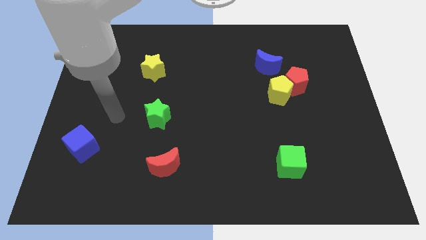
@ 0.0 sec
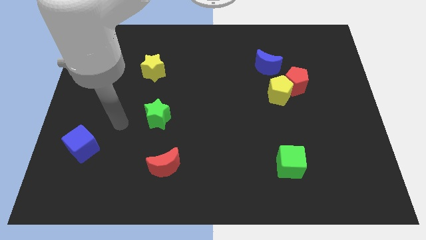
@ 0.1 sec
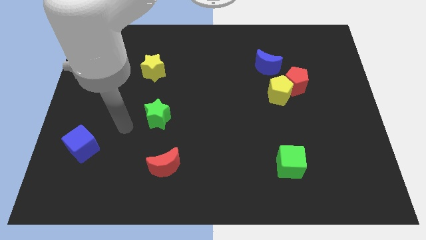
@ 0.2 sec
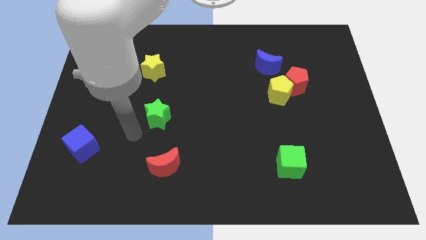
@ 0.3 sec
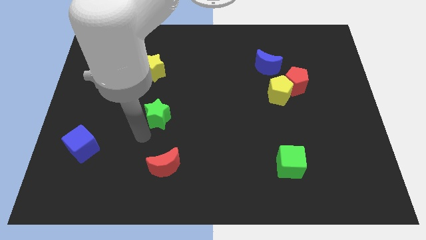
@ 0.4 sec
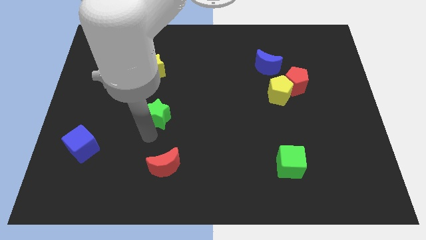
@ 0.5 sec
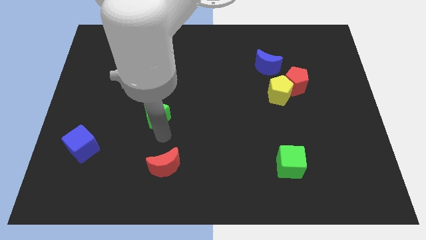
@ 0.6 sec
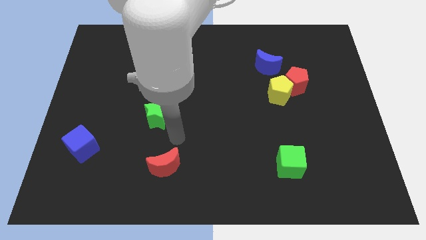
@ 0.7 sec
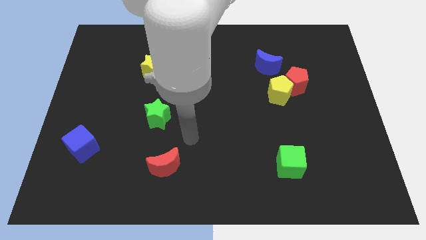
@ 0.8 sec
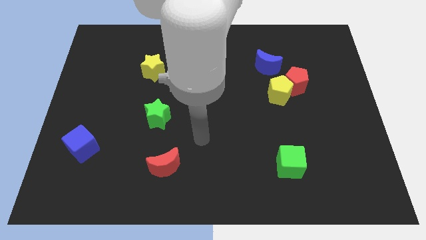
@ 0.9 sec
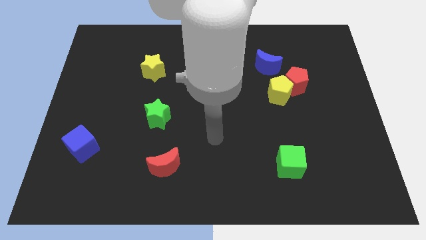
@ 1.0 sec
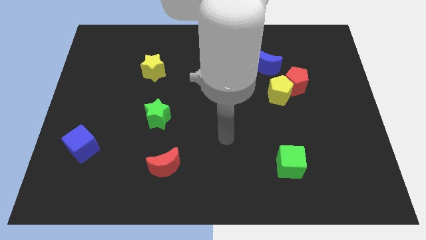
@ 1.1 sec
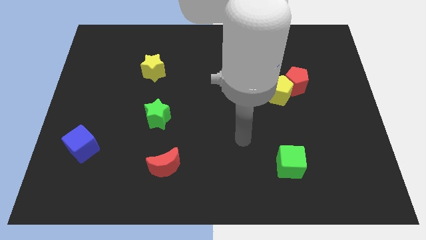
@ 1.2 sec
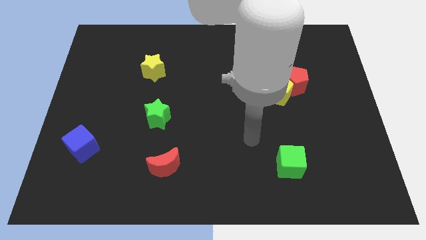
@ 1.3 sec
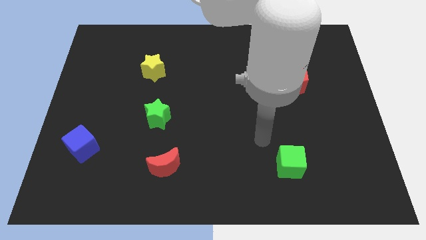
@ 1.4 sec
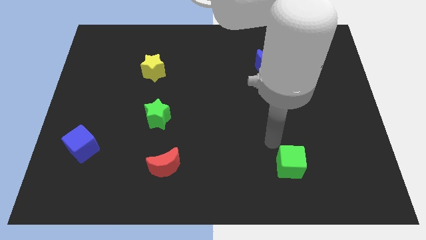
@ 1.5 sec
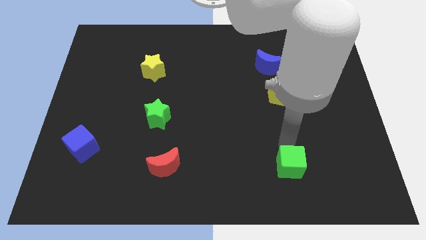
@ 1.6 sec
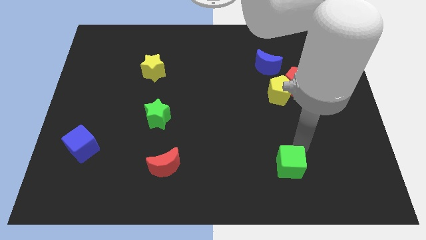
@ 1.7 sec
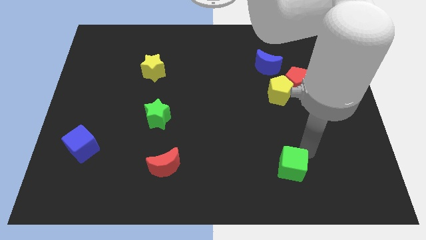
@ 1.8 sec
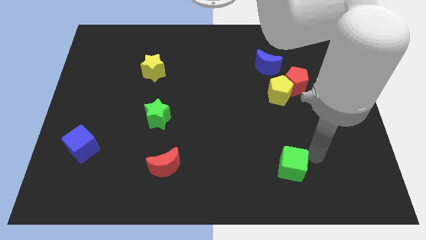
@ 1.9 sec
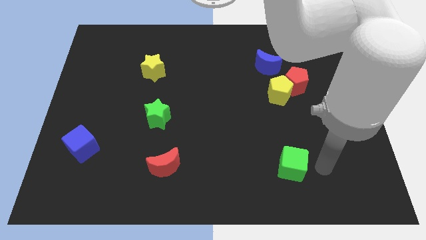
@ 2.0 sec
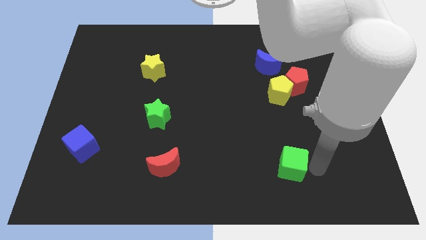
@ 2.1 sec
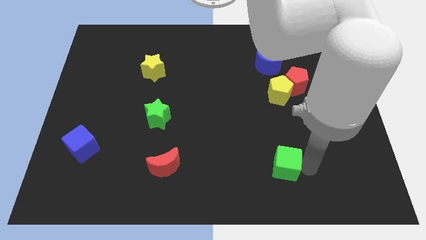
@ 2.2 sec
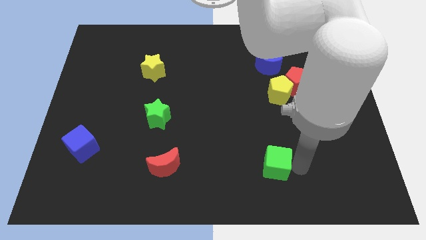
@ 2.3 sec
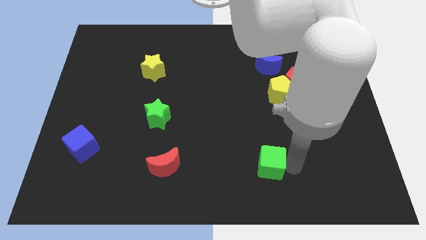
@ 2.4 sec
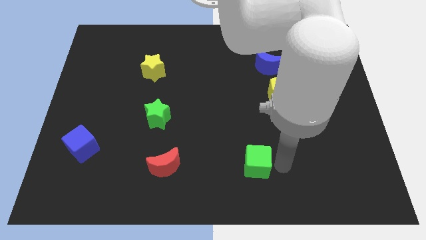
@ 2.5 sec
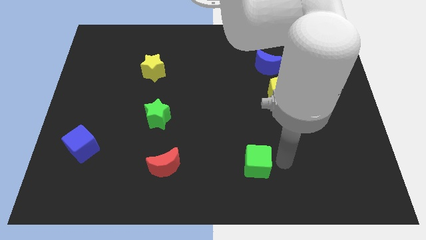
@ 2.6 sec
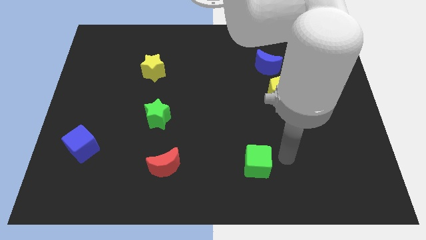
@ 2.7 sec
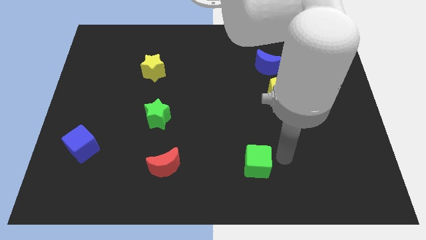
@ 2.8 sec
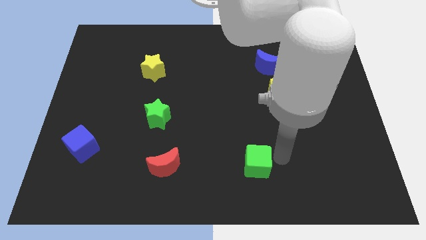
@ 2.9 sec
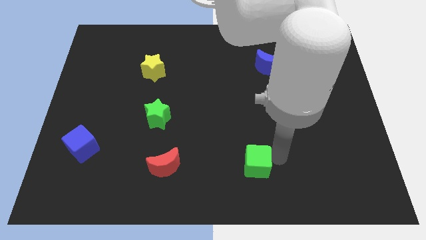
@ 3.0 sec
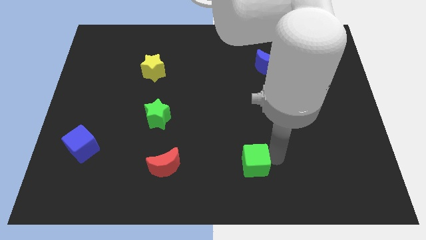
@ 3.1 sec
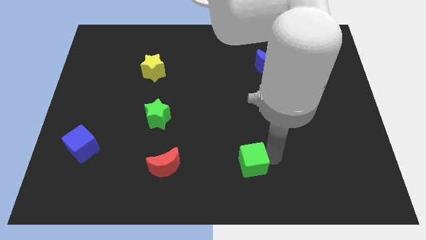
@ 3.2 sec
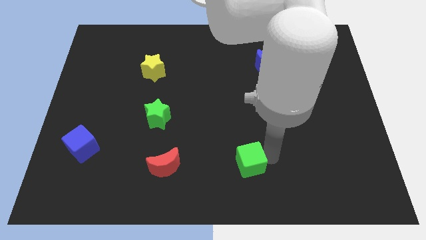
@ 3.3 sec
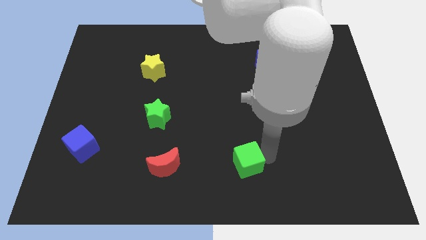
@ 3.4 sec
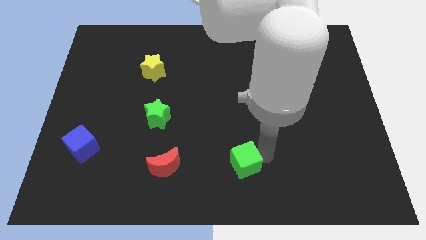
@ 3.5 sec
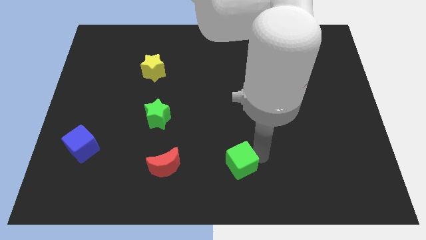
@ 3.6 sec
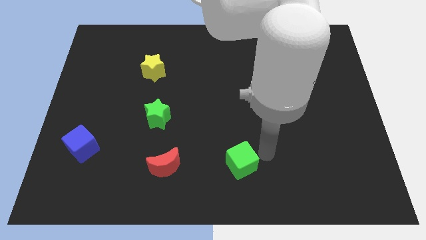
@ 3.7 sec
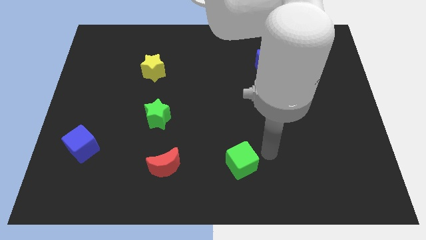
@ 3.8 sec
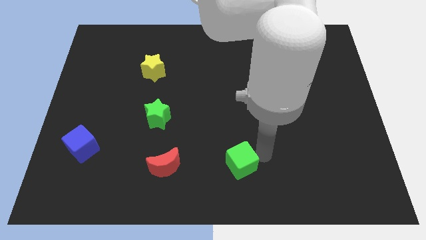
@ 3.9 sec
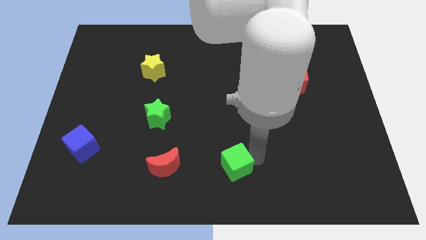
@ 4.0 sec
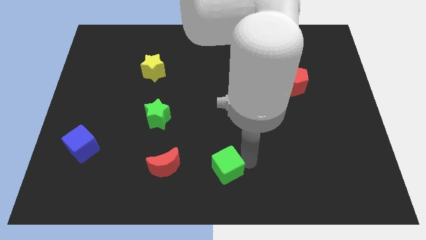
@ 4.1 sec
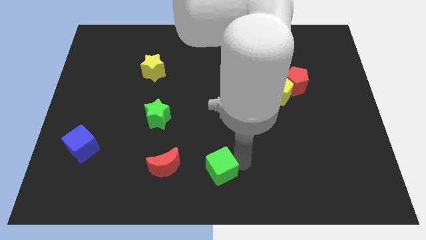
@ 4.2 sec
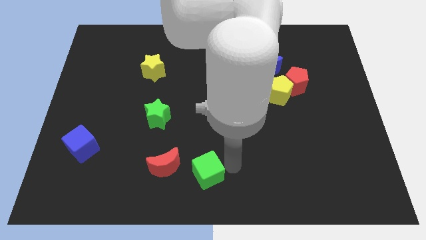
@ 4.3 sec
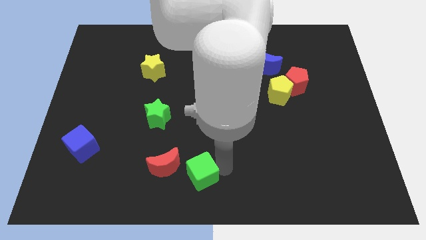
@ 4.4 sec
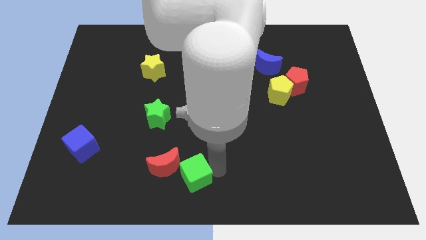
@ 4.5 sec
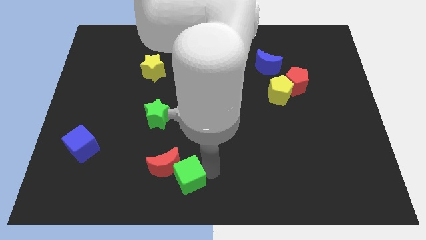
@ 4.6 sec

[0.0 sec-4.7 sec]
move the green cube to the left

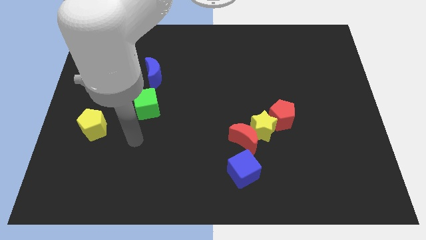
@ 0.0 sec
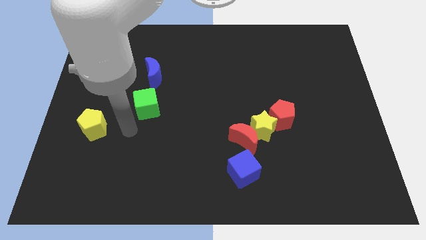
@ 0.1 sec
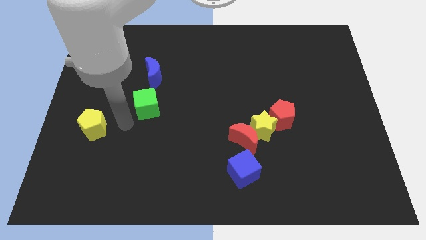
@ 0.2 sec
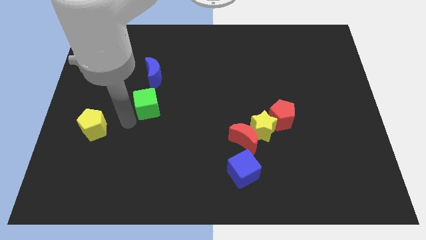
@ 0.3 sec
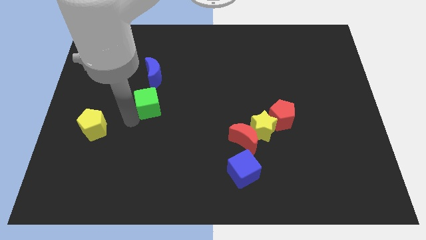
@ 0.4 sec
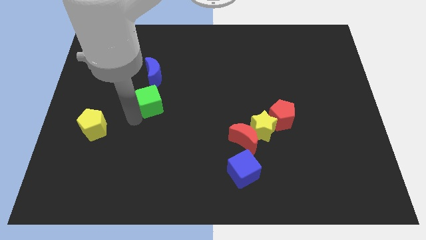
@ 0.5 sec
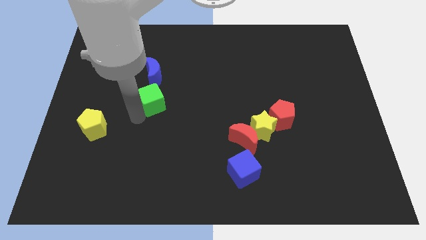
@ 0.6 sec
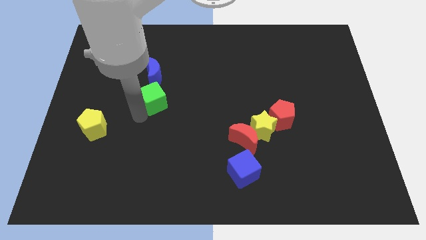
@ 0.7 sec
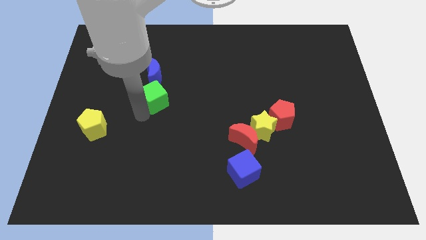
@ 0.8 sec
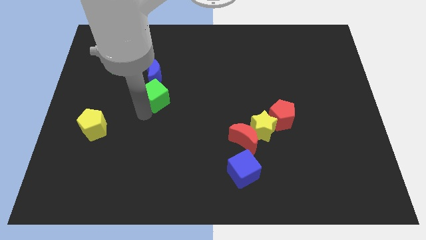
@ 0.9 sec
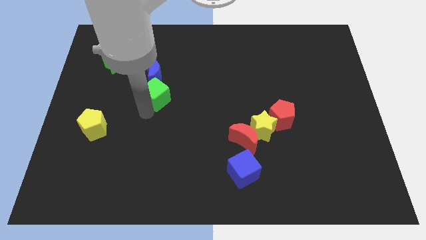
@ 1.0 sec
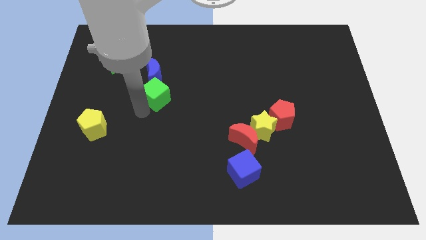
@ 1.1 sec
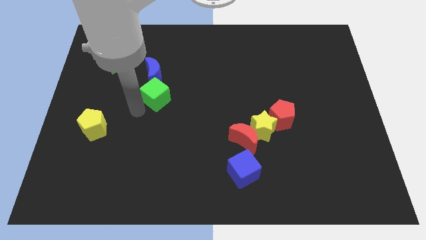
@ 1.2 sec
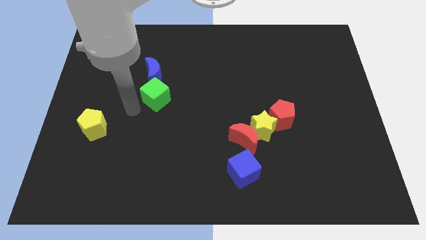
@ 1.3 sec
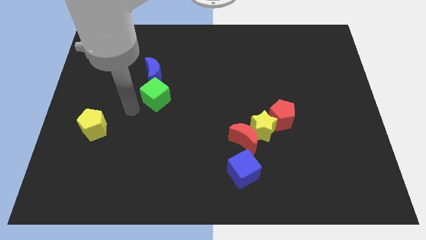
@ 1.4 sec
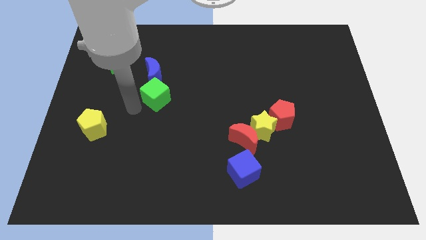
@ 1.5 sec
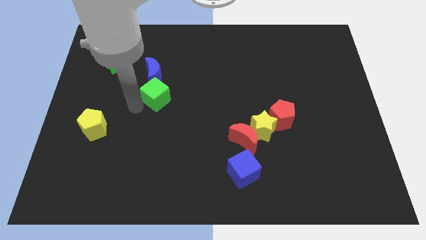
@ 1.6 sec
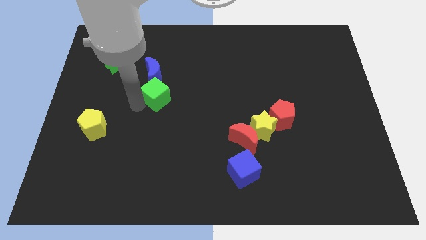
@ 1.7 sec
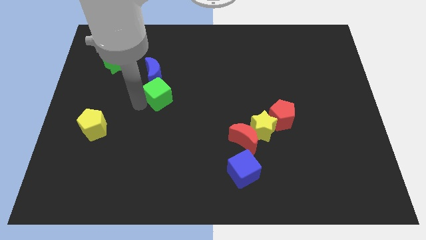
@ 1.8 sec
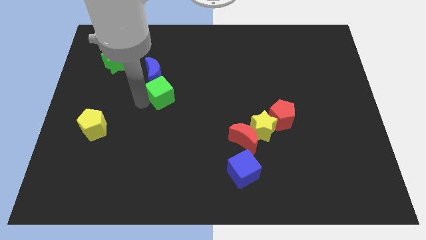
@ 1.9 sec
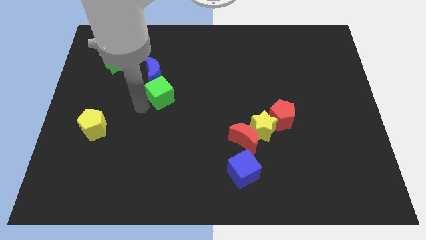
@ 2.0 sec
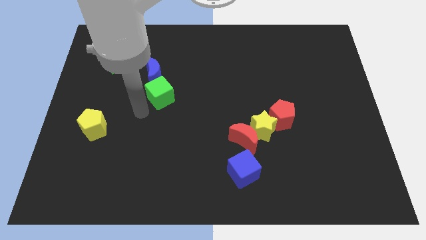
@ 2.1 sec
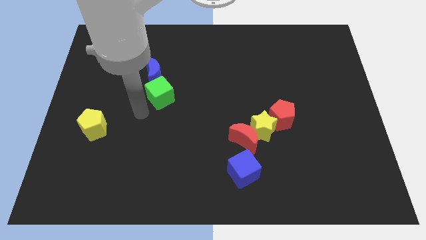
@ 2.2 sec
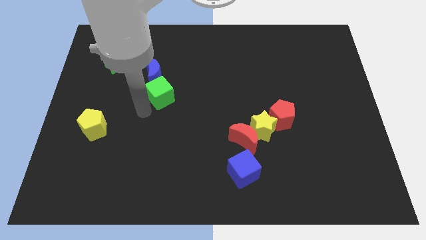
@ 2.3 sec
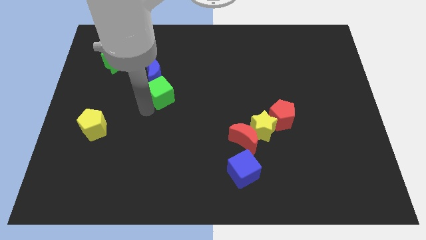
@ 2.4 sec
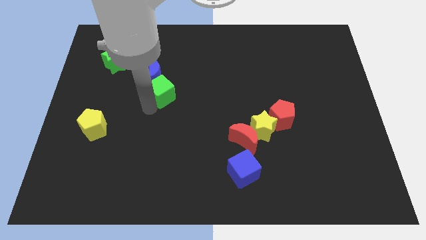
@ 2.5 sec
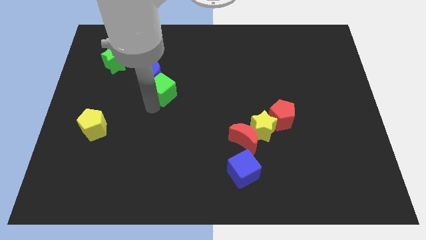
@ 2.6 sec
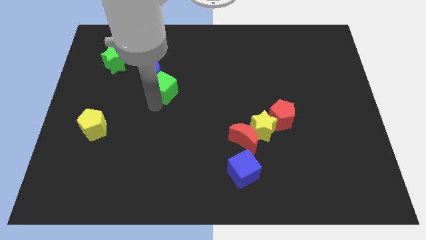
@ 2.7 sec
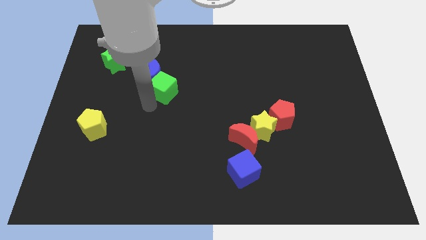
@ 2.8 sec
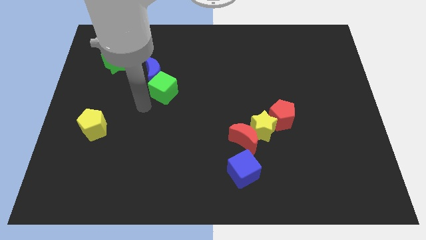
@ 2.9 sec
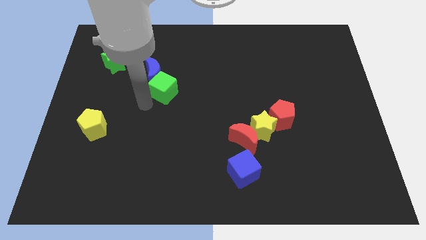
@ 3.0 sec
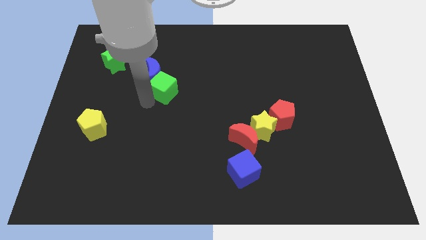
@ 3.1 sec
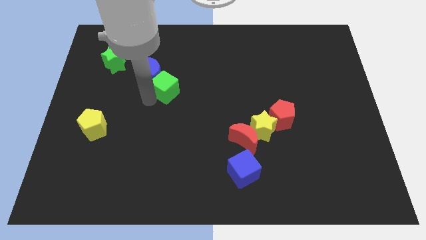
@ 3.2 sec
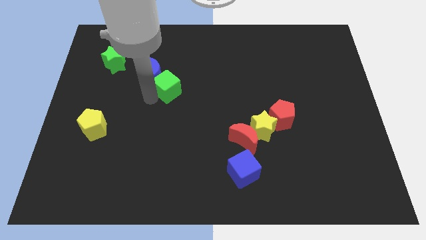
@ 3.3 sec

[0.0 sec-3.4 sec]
move the green cube slightly up and right diagonally
